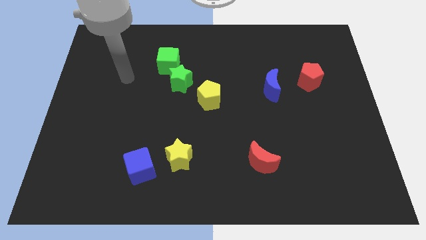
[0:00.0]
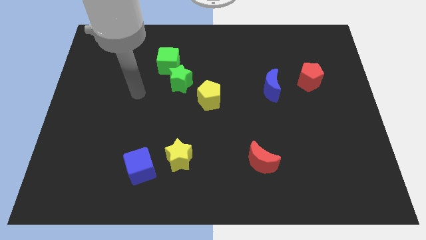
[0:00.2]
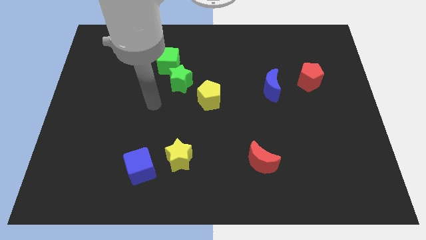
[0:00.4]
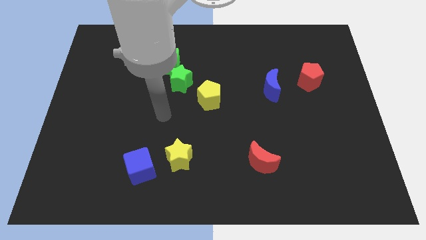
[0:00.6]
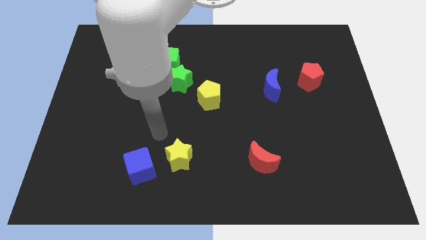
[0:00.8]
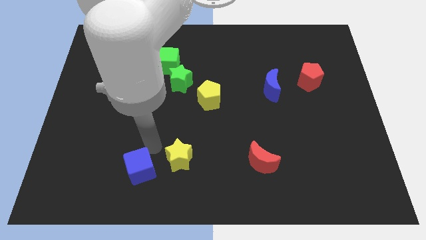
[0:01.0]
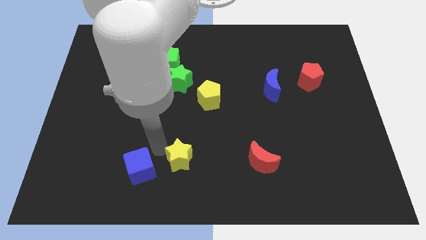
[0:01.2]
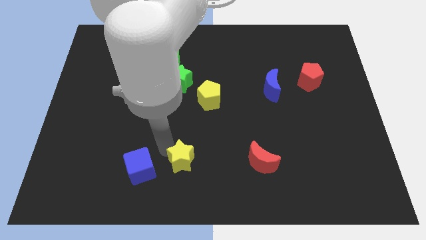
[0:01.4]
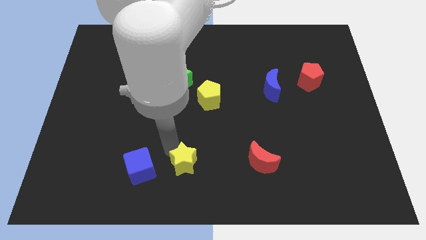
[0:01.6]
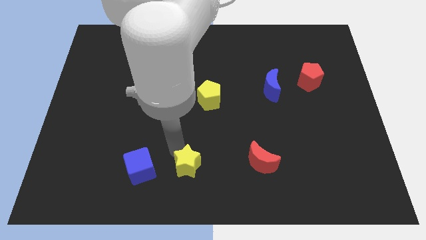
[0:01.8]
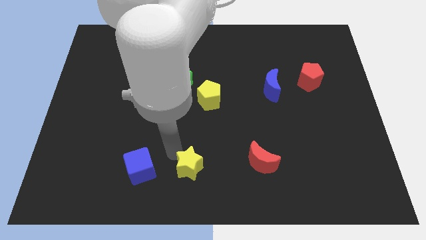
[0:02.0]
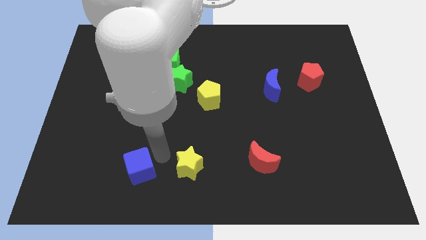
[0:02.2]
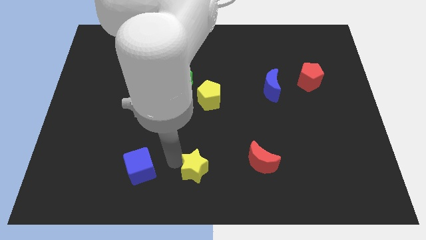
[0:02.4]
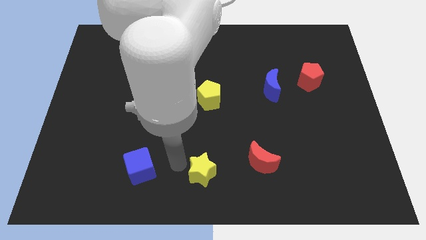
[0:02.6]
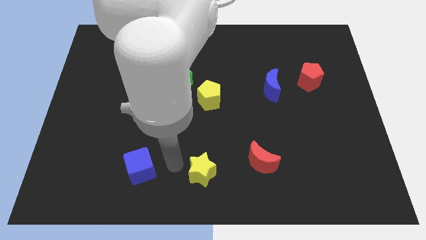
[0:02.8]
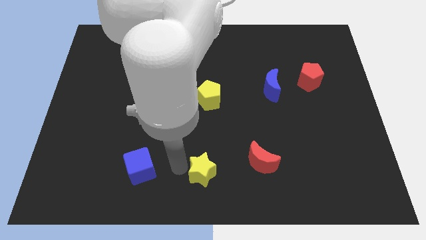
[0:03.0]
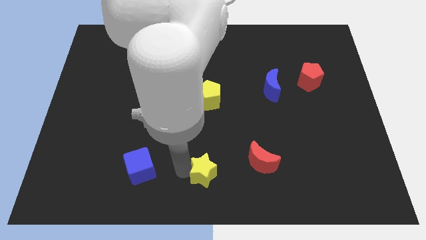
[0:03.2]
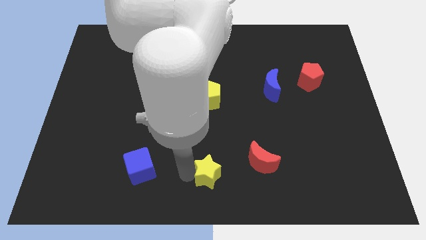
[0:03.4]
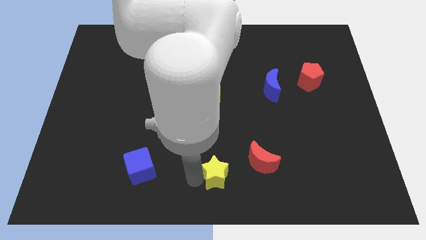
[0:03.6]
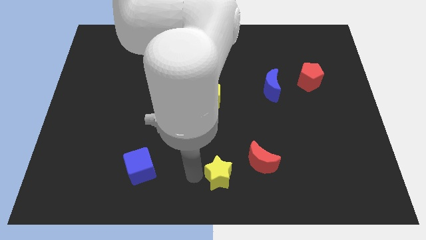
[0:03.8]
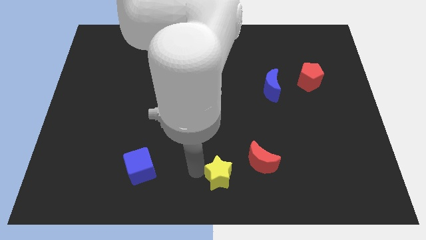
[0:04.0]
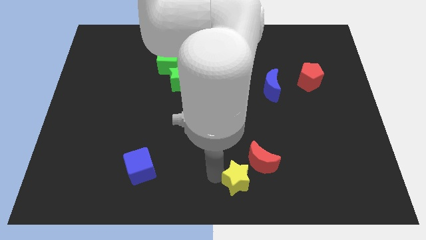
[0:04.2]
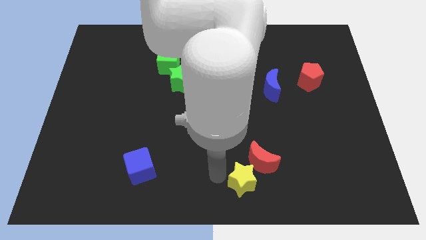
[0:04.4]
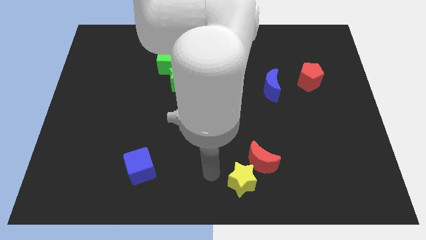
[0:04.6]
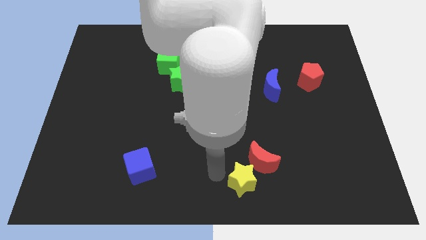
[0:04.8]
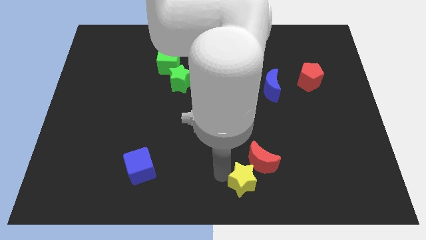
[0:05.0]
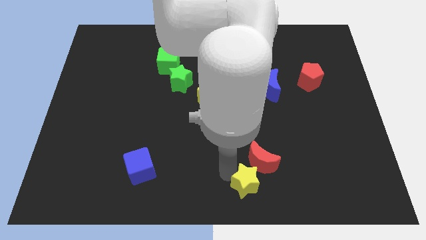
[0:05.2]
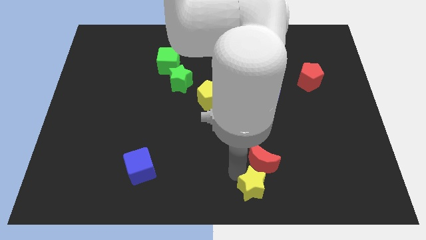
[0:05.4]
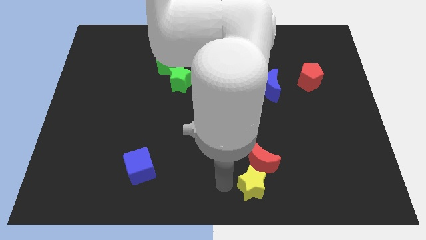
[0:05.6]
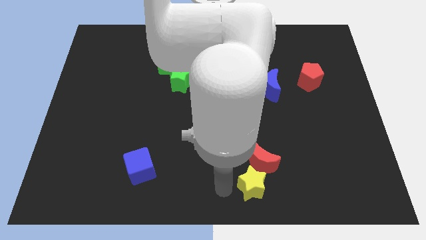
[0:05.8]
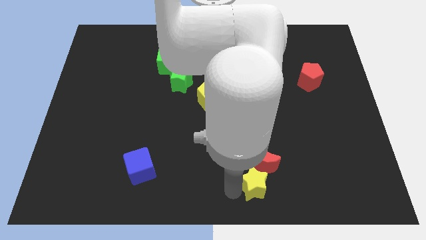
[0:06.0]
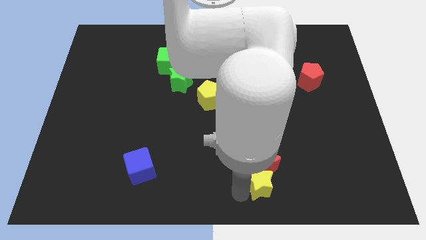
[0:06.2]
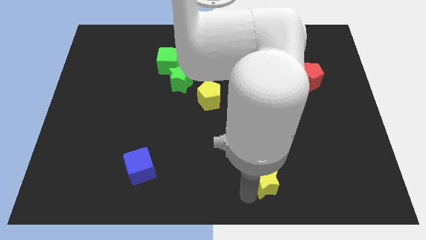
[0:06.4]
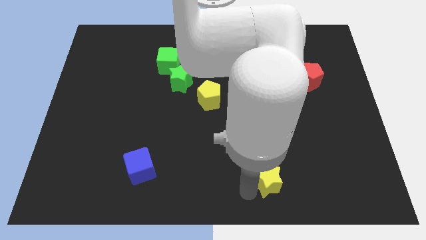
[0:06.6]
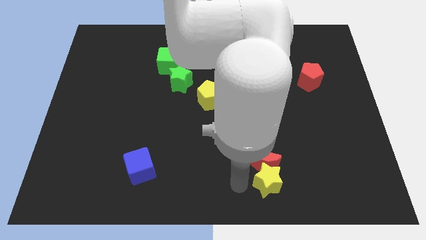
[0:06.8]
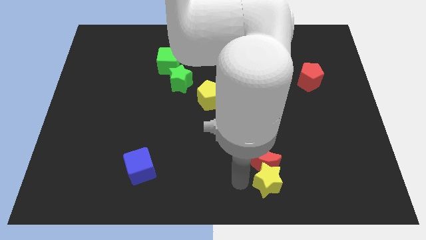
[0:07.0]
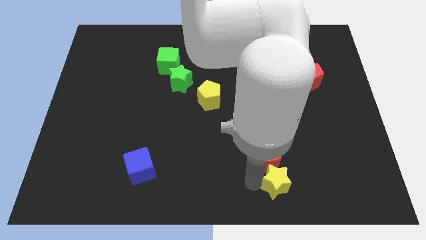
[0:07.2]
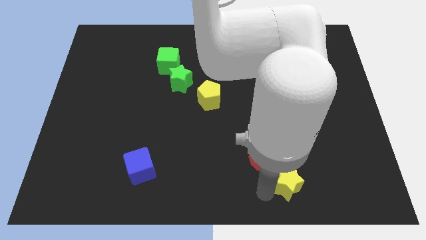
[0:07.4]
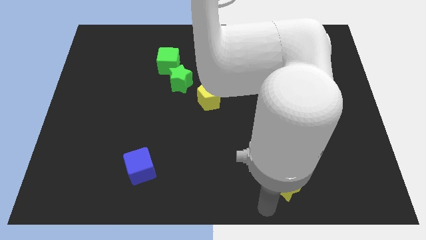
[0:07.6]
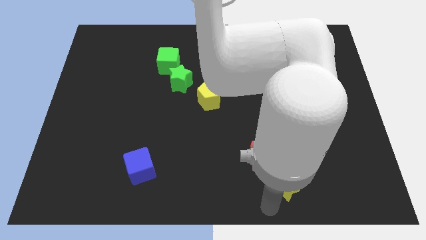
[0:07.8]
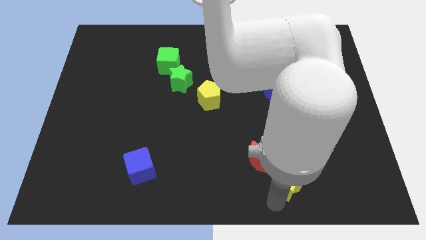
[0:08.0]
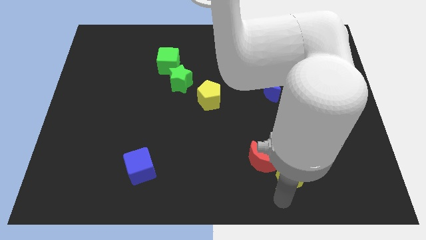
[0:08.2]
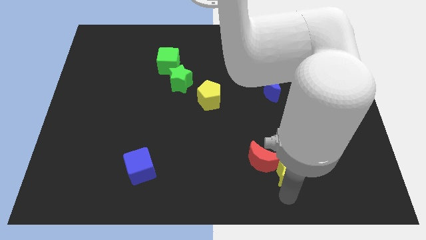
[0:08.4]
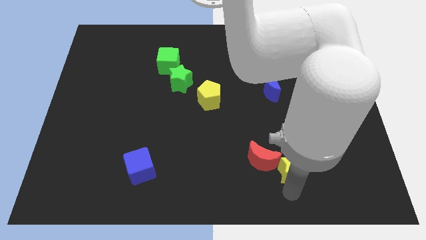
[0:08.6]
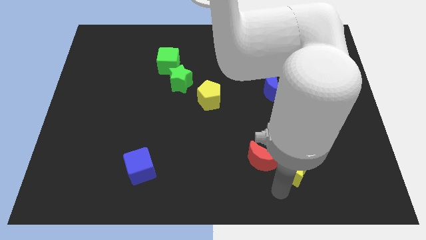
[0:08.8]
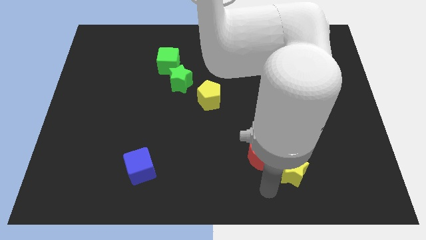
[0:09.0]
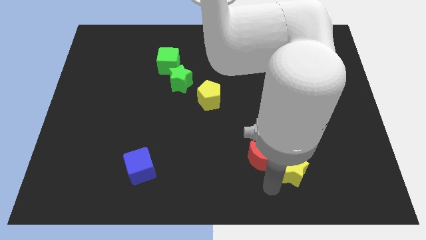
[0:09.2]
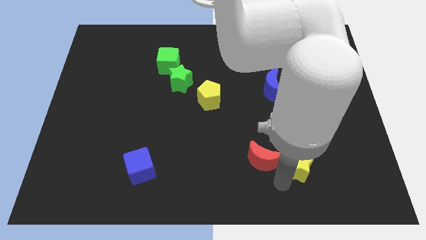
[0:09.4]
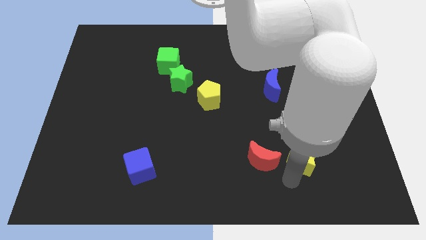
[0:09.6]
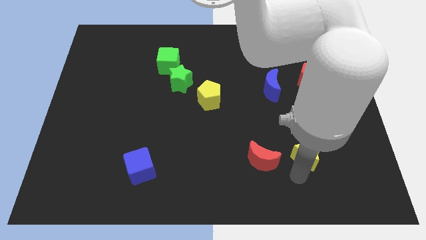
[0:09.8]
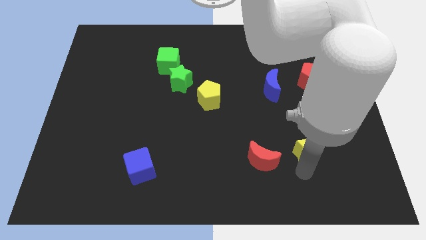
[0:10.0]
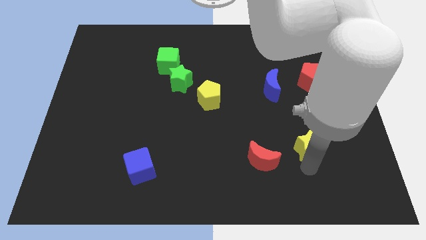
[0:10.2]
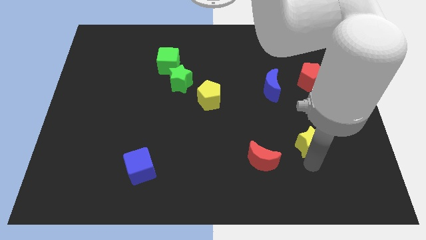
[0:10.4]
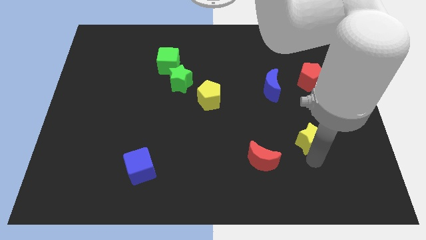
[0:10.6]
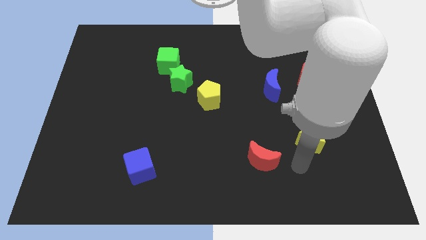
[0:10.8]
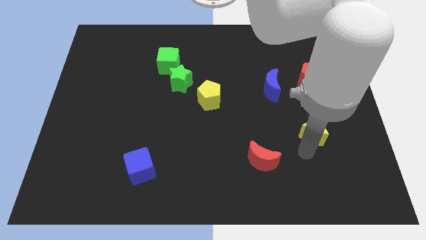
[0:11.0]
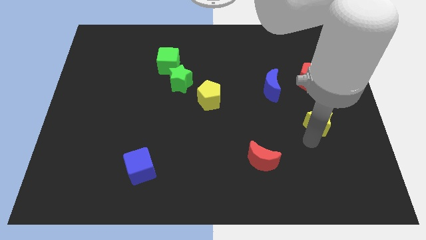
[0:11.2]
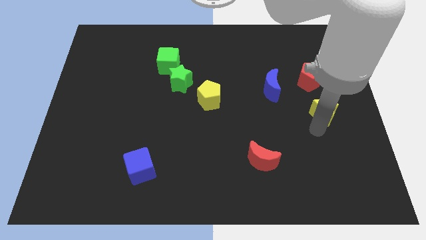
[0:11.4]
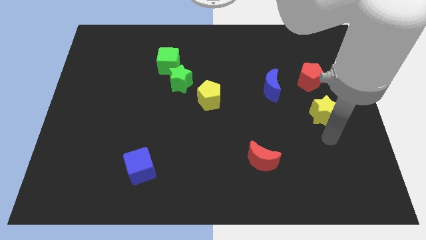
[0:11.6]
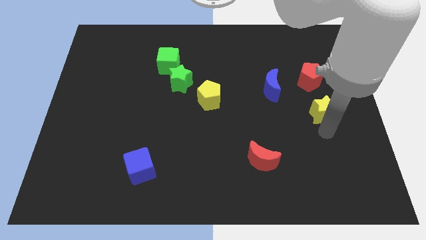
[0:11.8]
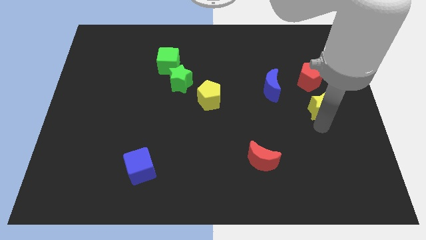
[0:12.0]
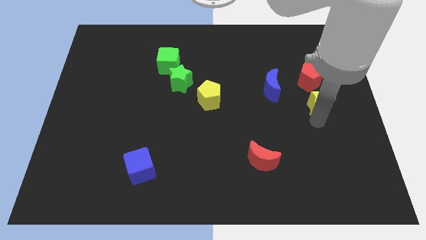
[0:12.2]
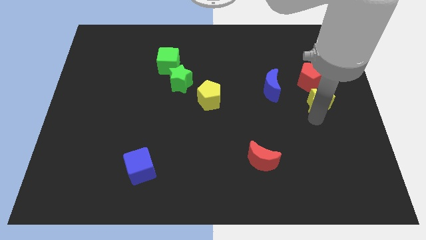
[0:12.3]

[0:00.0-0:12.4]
move the yellow star to the right side of the blue moon

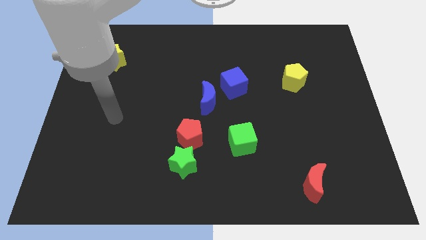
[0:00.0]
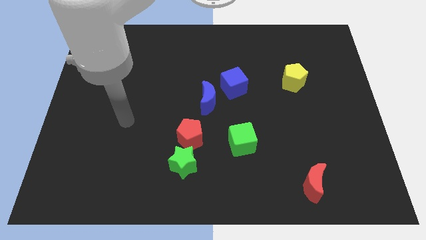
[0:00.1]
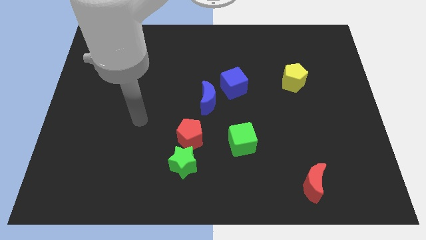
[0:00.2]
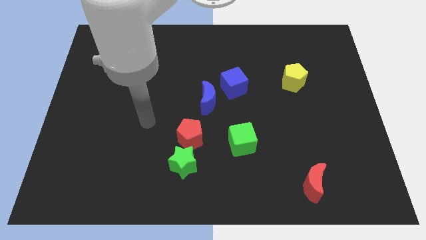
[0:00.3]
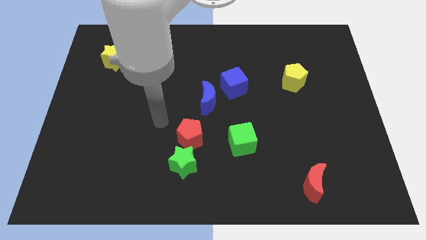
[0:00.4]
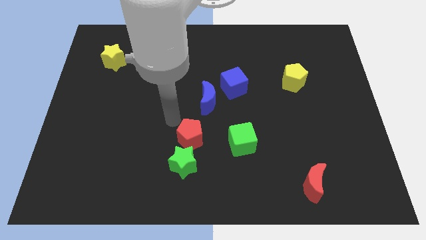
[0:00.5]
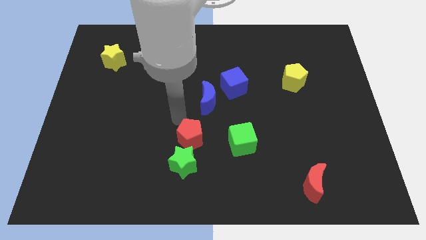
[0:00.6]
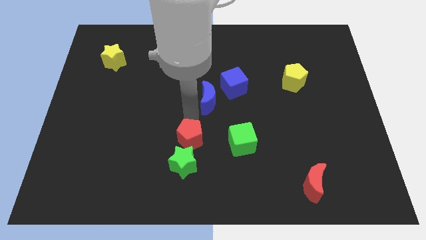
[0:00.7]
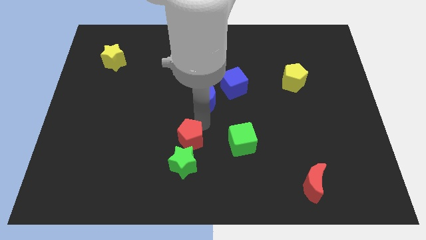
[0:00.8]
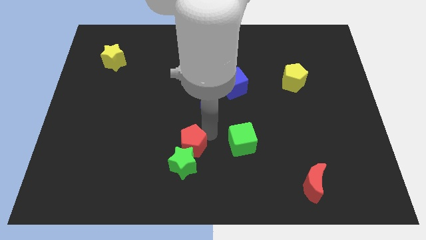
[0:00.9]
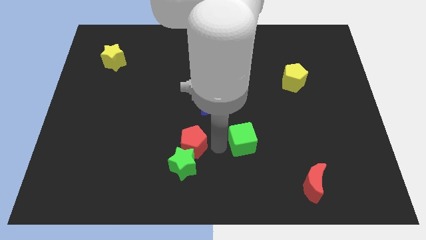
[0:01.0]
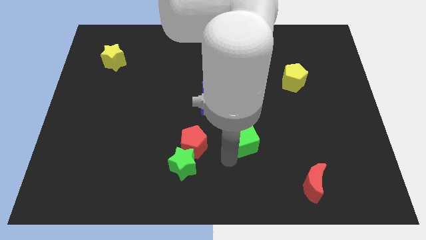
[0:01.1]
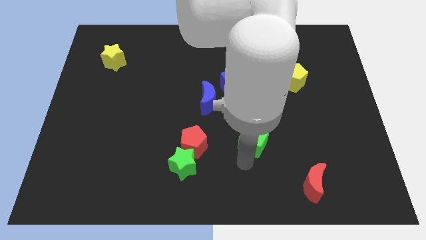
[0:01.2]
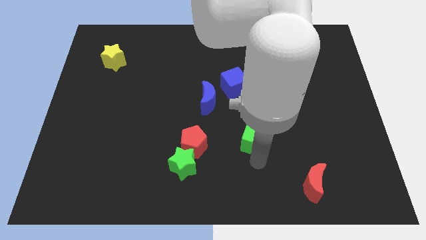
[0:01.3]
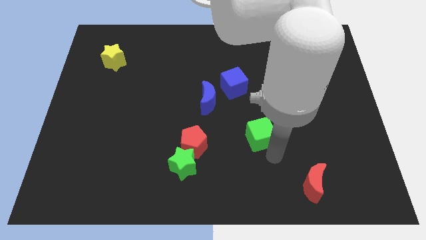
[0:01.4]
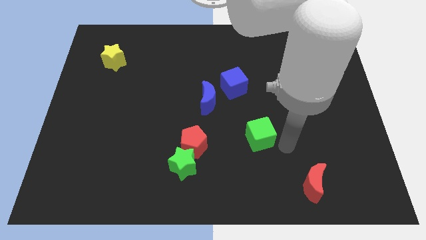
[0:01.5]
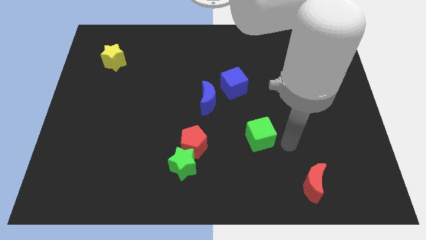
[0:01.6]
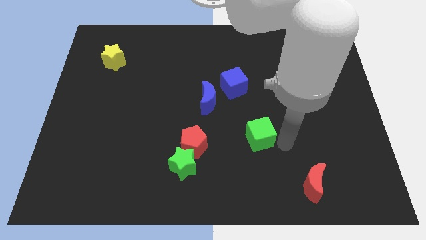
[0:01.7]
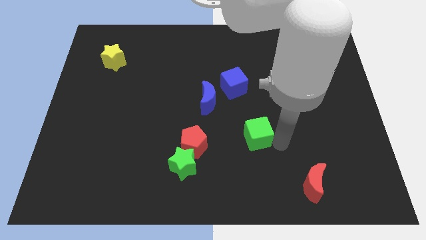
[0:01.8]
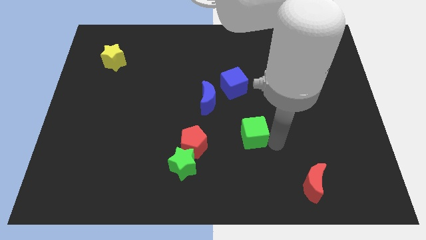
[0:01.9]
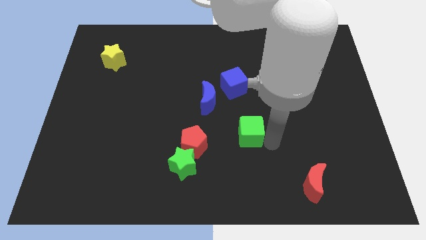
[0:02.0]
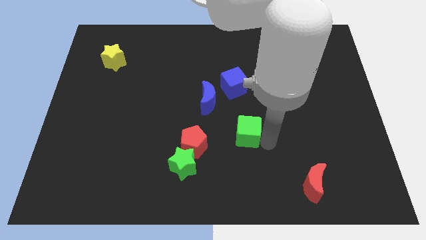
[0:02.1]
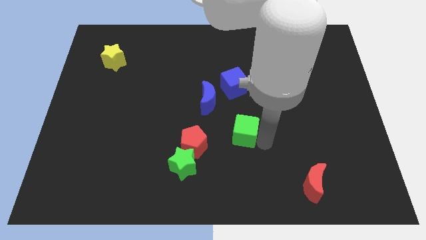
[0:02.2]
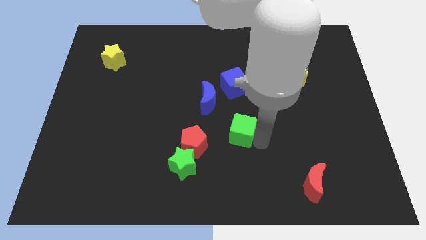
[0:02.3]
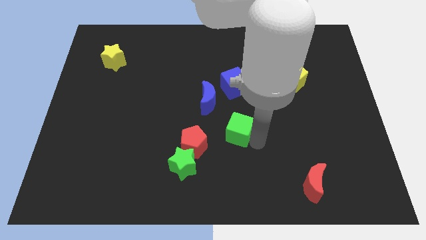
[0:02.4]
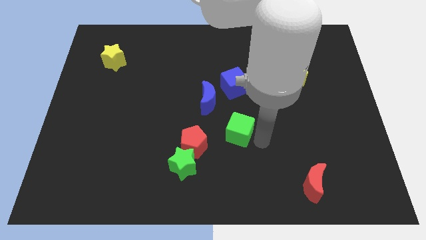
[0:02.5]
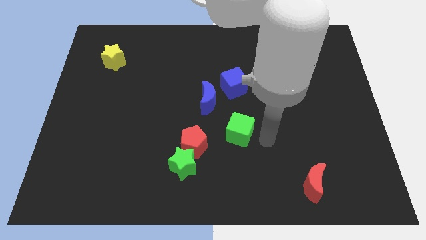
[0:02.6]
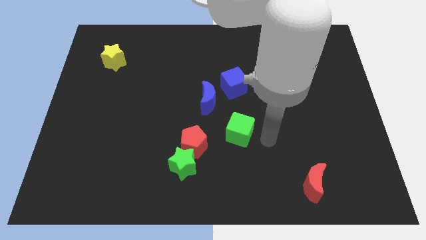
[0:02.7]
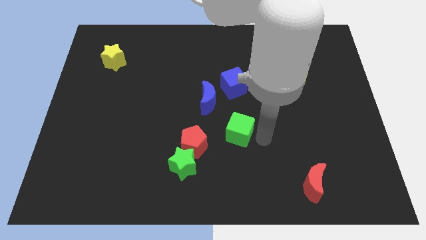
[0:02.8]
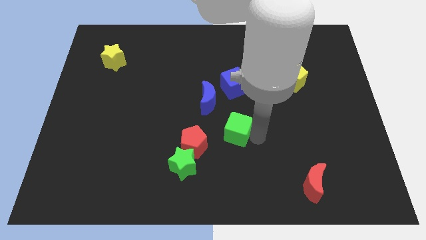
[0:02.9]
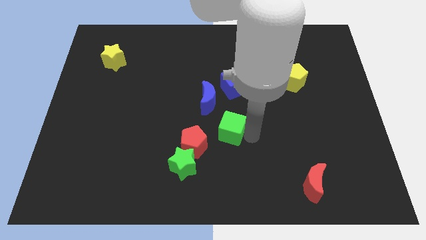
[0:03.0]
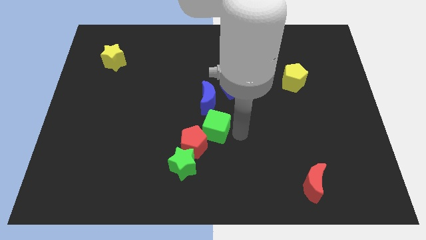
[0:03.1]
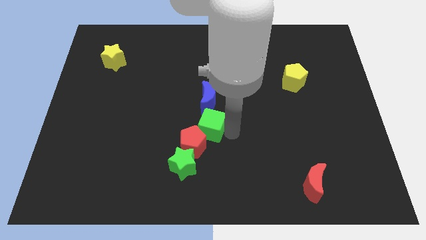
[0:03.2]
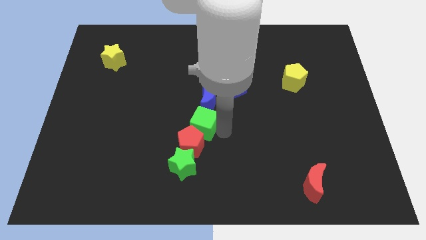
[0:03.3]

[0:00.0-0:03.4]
move the green cube to the bottom left of the blue moon
